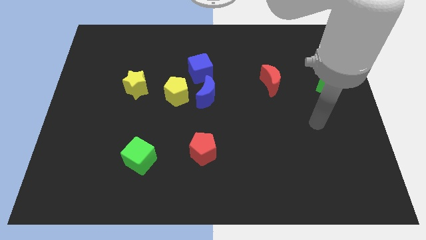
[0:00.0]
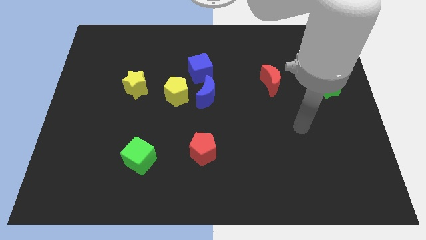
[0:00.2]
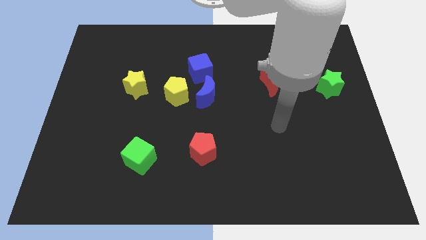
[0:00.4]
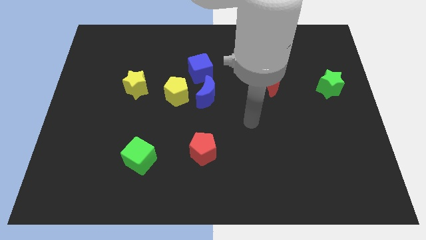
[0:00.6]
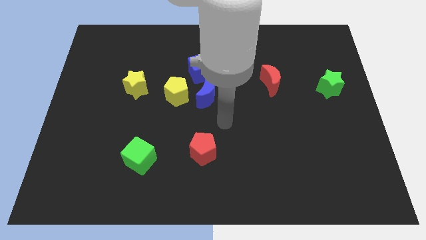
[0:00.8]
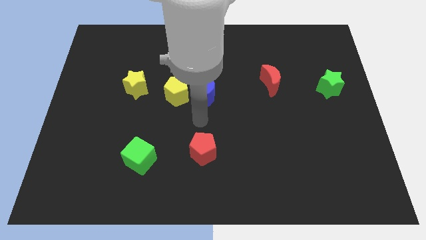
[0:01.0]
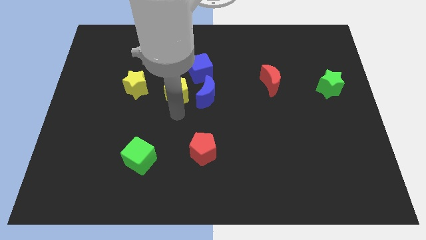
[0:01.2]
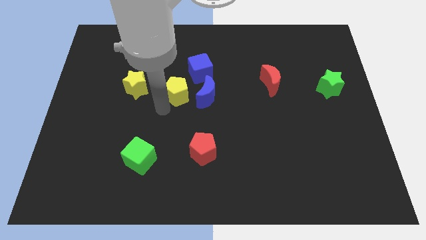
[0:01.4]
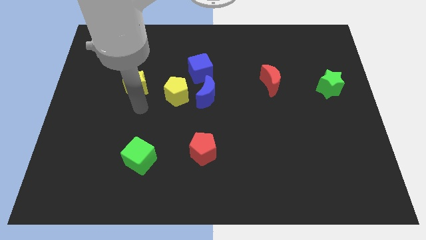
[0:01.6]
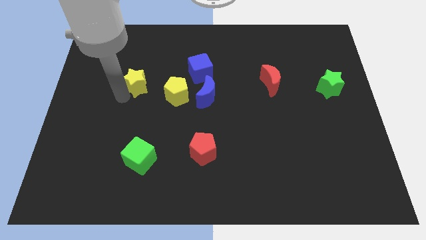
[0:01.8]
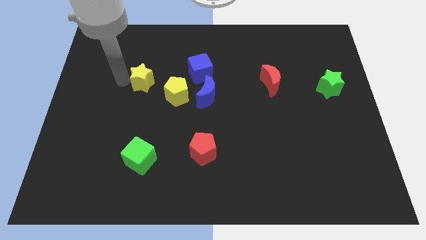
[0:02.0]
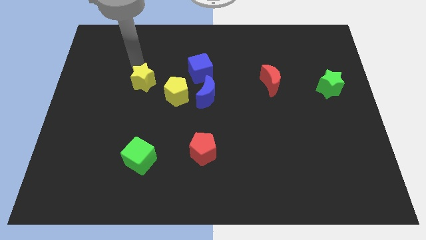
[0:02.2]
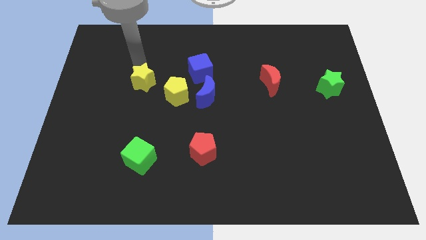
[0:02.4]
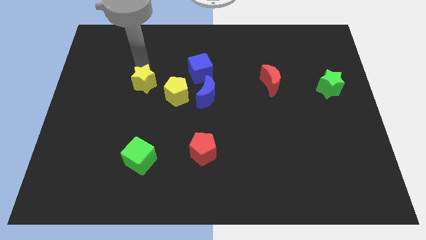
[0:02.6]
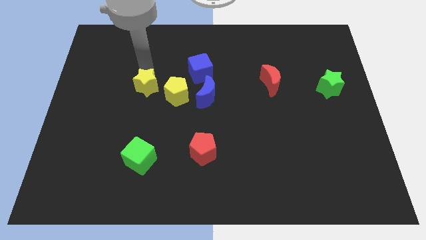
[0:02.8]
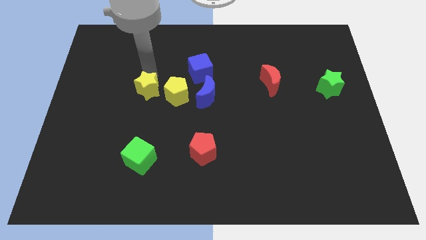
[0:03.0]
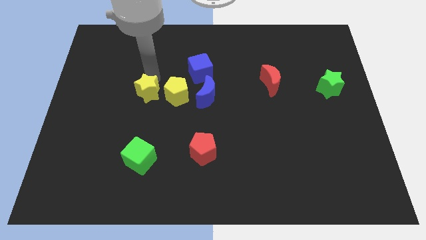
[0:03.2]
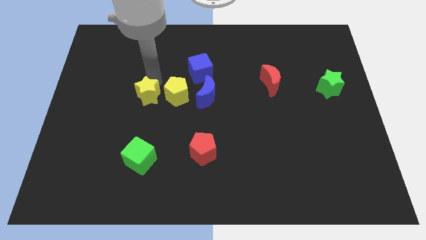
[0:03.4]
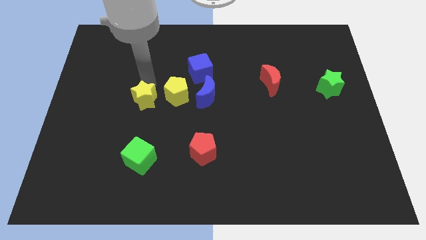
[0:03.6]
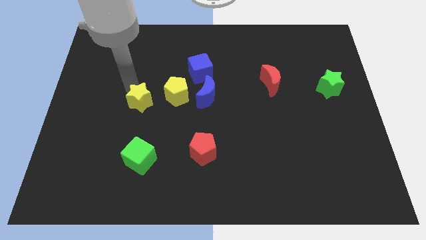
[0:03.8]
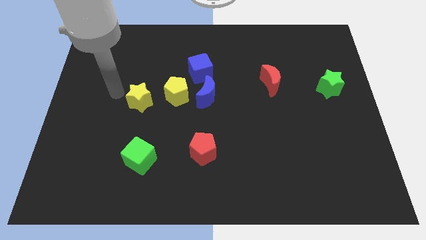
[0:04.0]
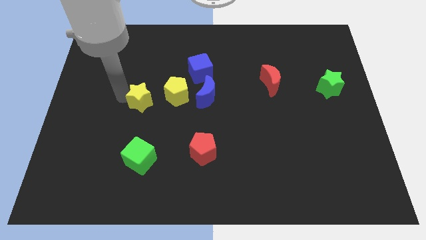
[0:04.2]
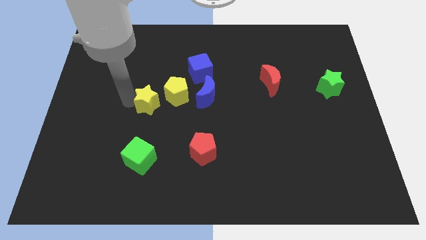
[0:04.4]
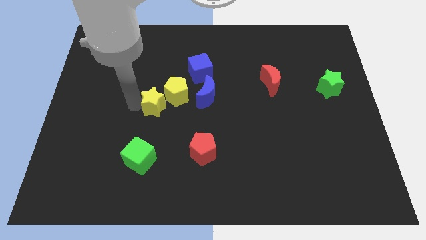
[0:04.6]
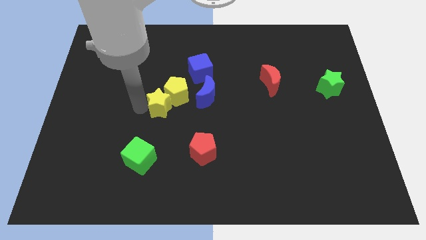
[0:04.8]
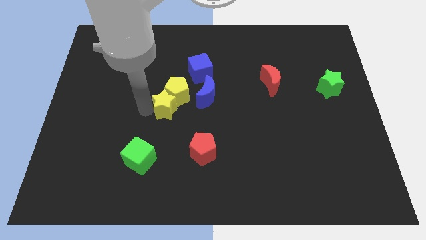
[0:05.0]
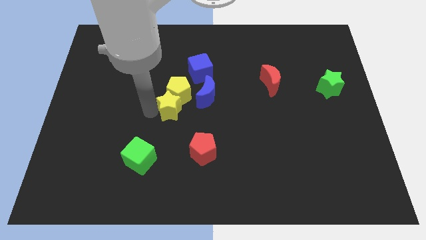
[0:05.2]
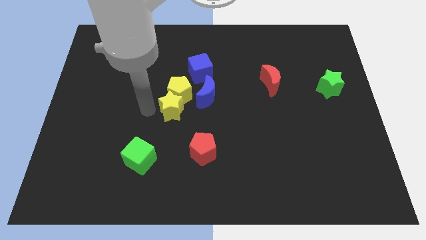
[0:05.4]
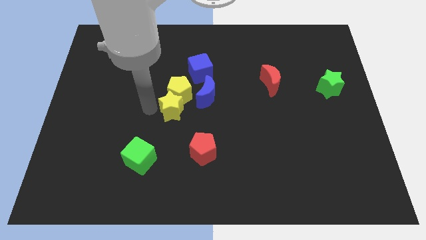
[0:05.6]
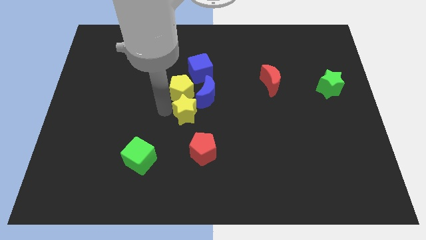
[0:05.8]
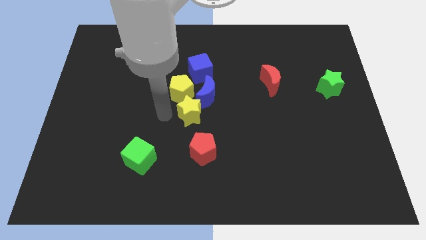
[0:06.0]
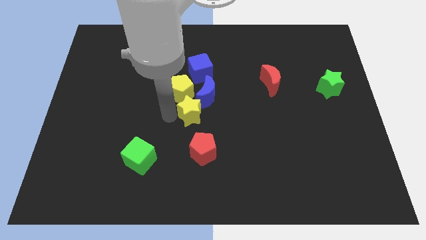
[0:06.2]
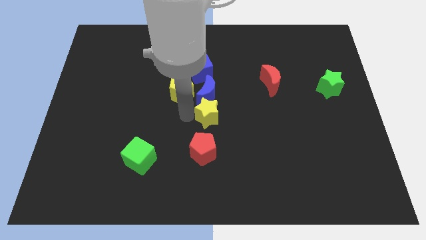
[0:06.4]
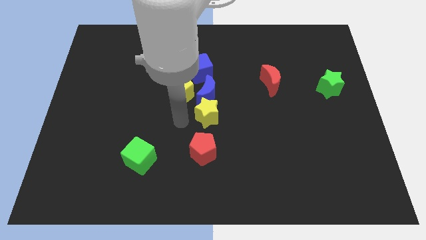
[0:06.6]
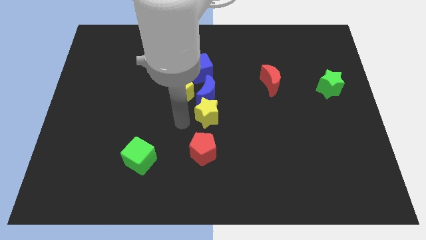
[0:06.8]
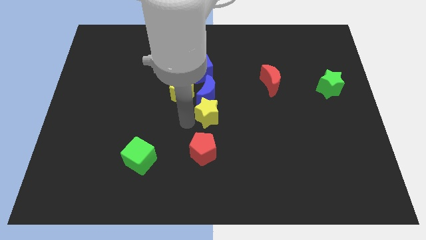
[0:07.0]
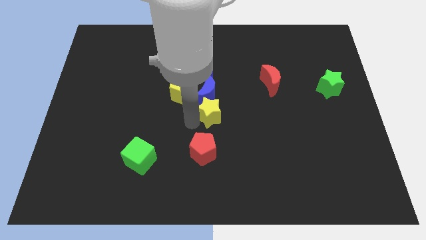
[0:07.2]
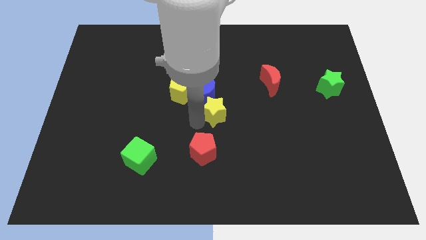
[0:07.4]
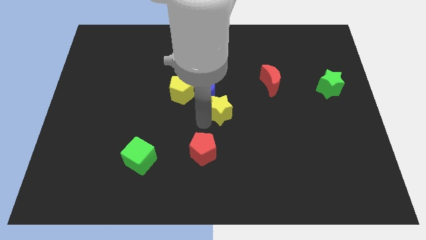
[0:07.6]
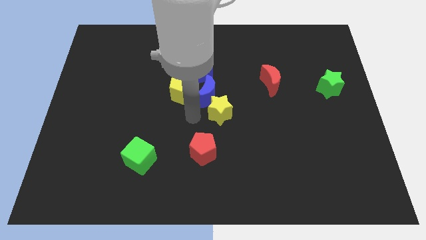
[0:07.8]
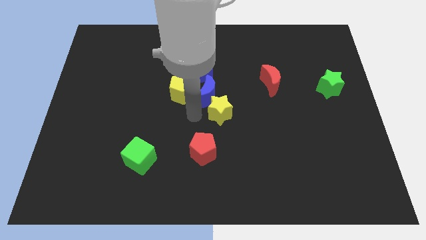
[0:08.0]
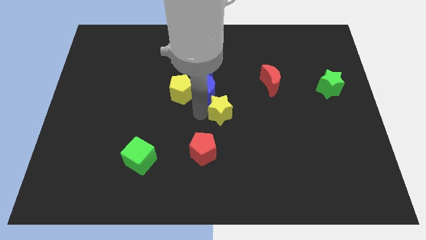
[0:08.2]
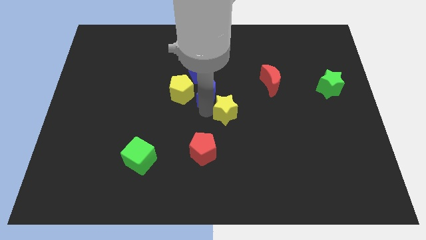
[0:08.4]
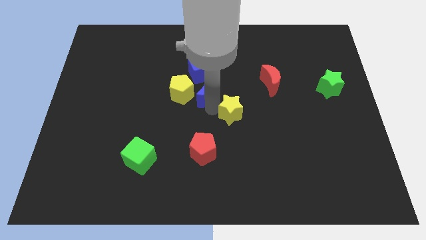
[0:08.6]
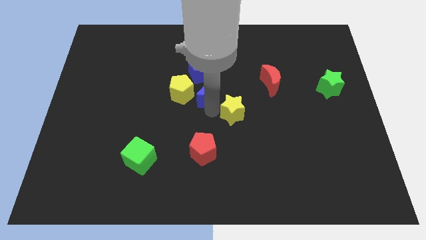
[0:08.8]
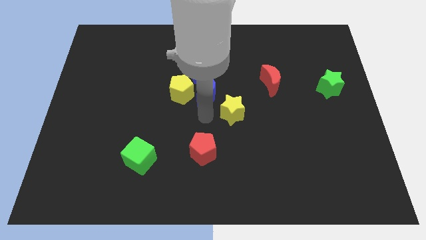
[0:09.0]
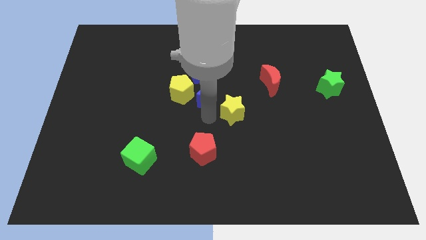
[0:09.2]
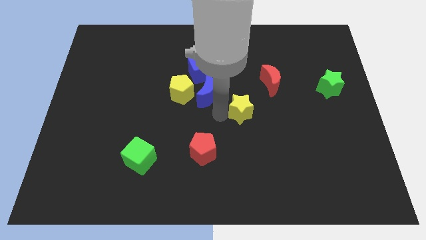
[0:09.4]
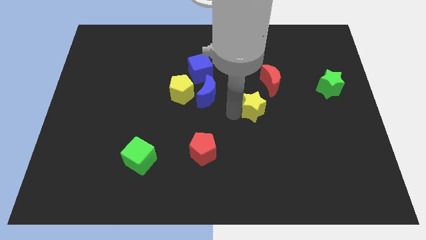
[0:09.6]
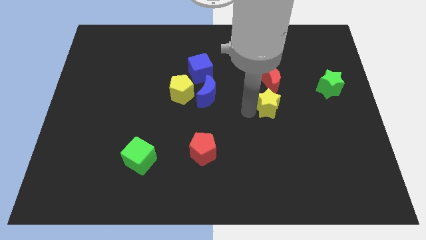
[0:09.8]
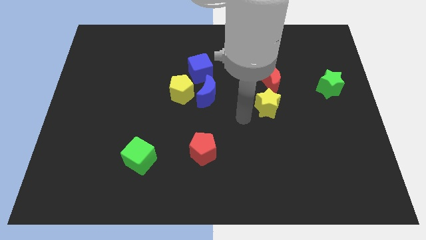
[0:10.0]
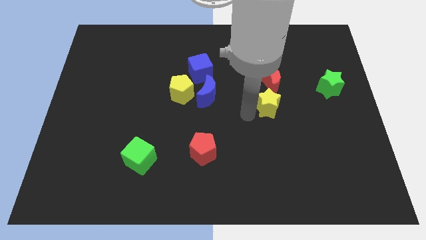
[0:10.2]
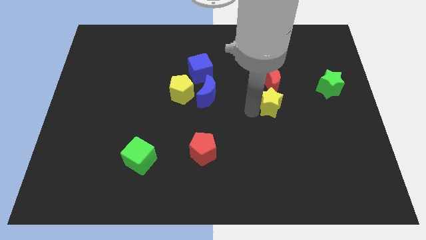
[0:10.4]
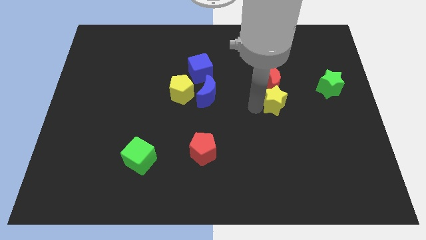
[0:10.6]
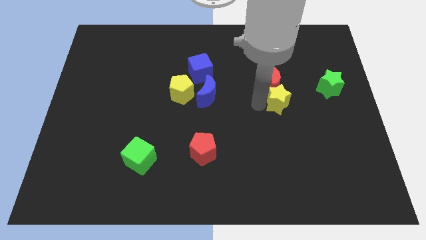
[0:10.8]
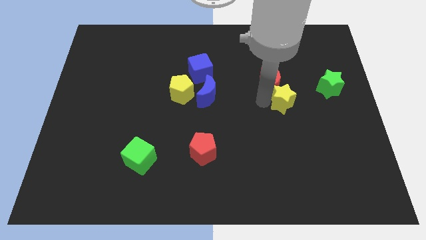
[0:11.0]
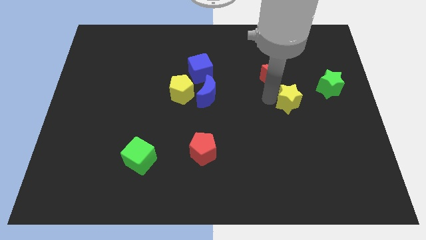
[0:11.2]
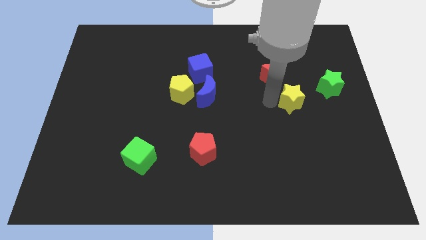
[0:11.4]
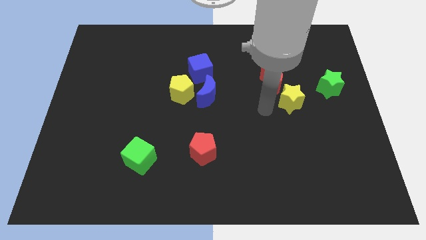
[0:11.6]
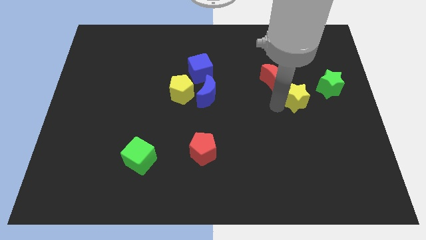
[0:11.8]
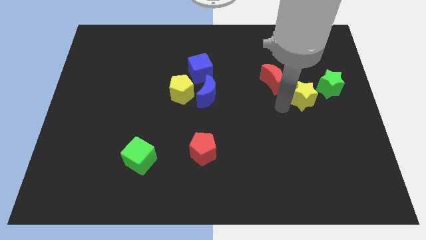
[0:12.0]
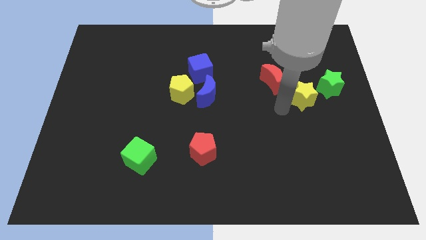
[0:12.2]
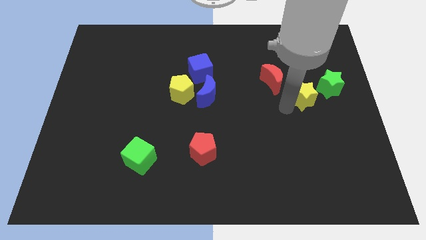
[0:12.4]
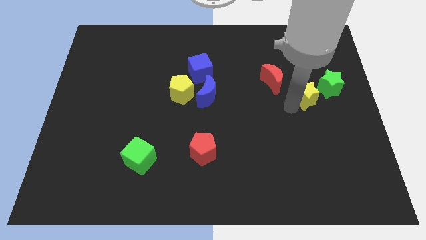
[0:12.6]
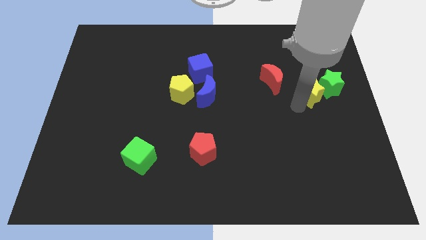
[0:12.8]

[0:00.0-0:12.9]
slide the yellow star next to the green star

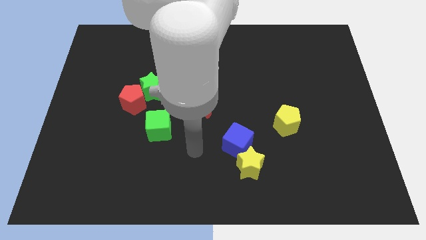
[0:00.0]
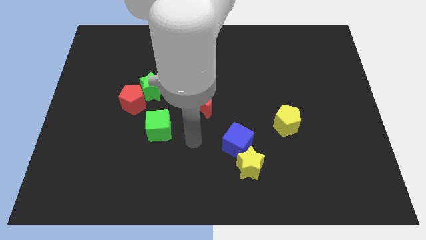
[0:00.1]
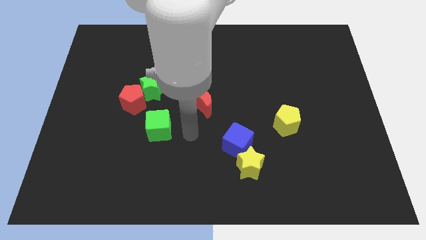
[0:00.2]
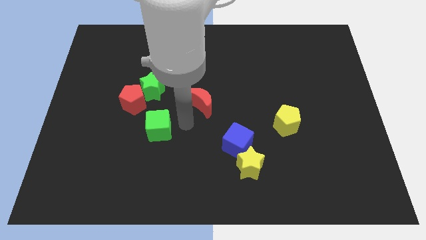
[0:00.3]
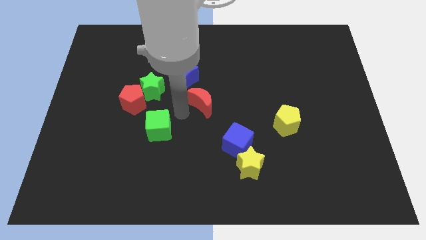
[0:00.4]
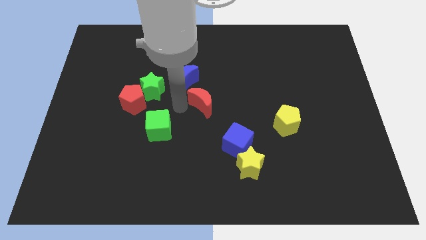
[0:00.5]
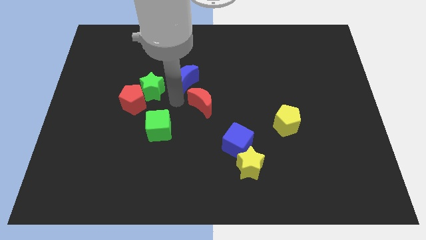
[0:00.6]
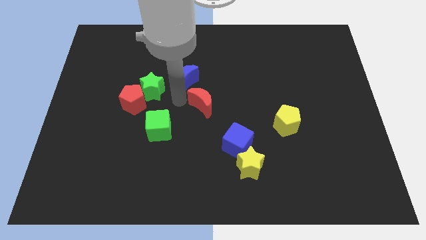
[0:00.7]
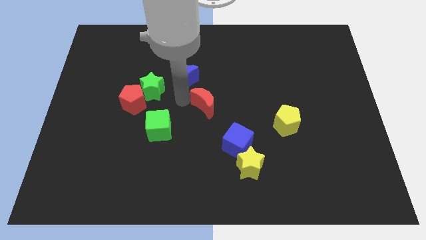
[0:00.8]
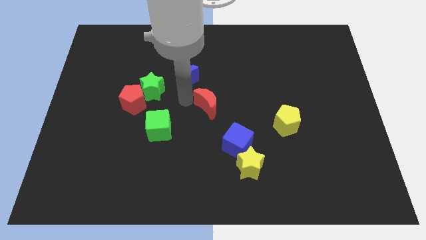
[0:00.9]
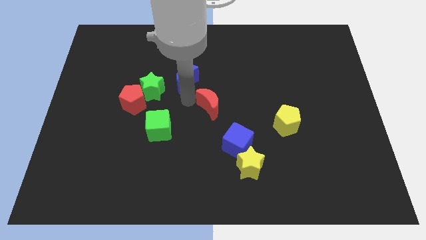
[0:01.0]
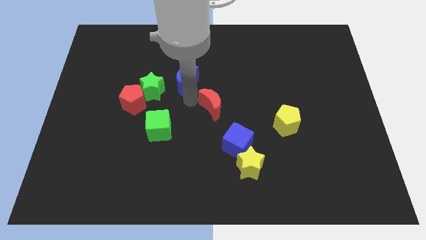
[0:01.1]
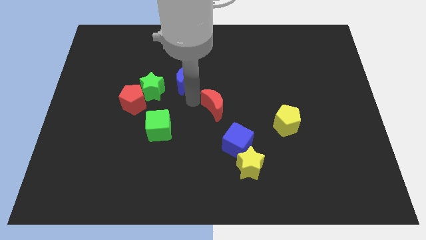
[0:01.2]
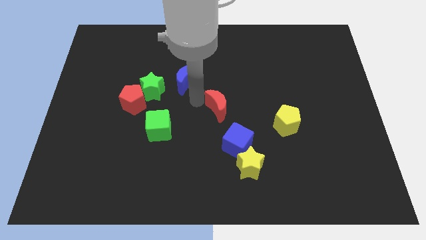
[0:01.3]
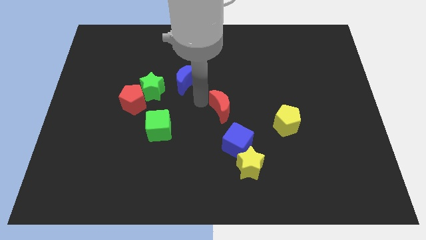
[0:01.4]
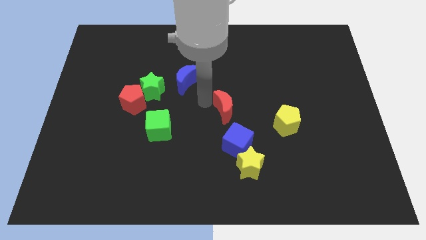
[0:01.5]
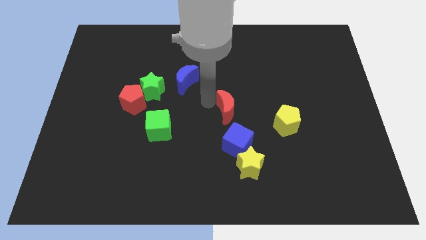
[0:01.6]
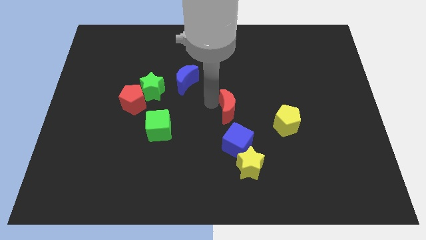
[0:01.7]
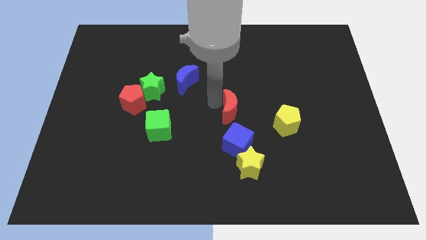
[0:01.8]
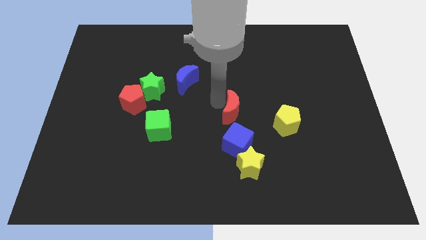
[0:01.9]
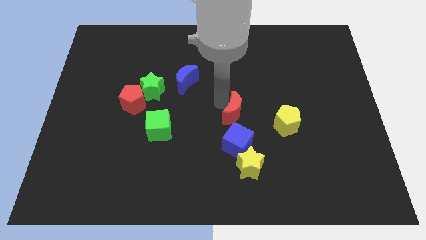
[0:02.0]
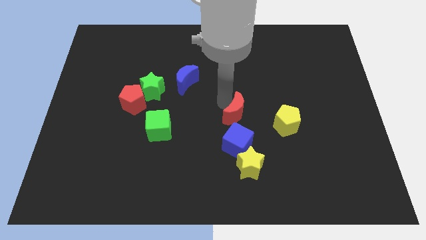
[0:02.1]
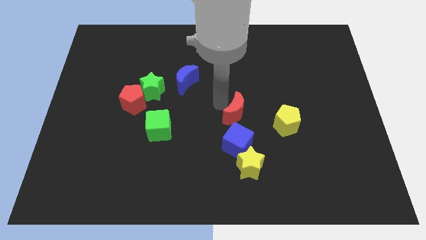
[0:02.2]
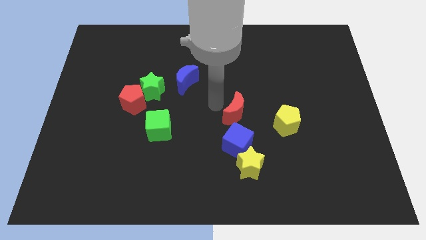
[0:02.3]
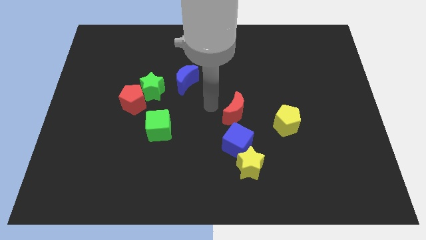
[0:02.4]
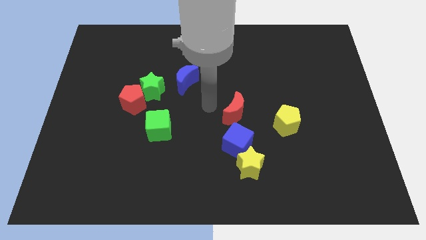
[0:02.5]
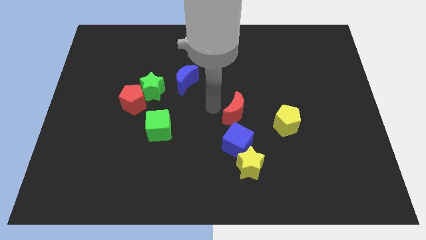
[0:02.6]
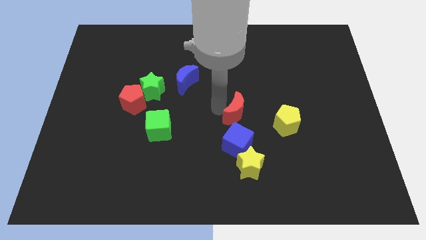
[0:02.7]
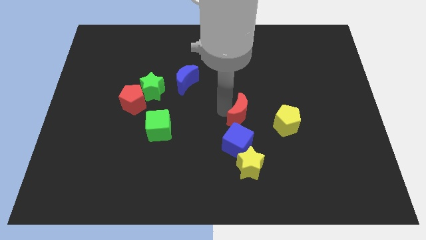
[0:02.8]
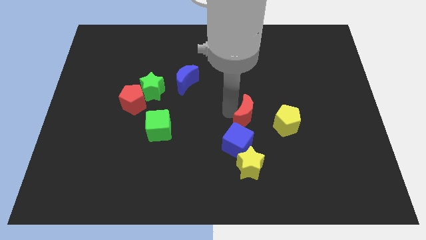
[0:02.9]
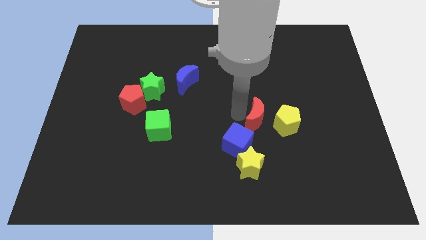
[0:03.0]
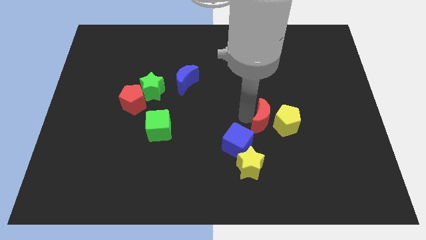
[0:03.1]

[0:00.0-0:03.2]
push the red moon next to the yellow pentagon
